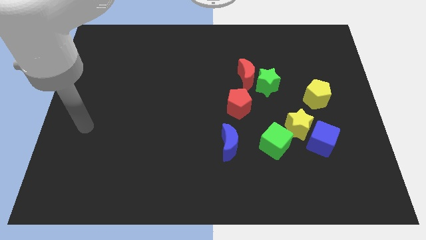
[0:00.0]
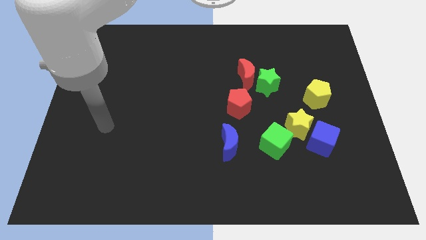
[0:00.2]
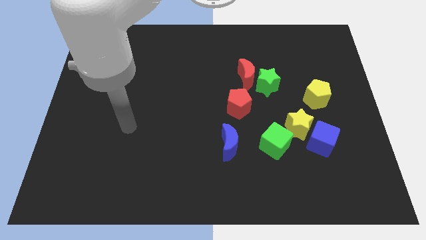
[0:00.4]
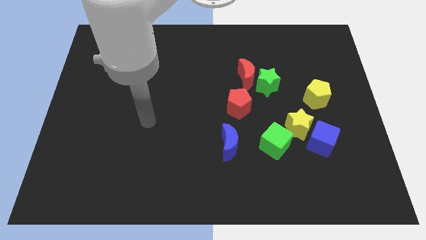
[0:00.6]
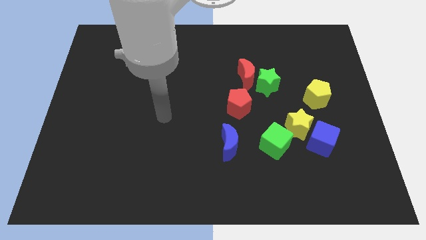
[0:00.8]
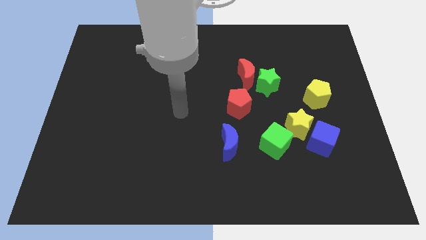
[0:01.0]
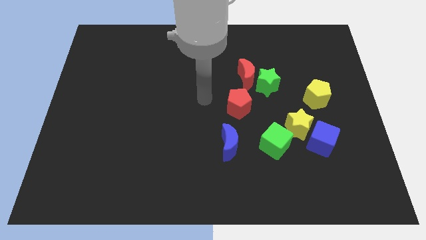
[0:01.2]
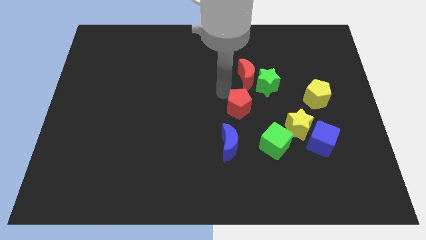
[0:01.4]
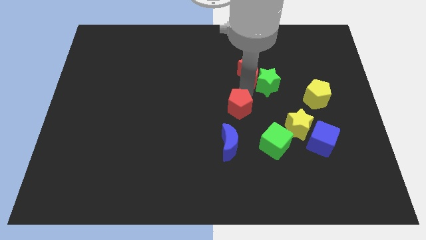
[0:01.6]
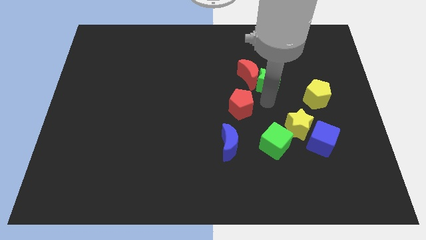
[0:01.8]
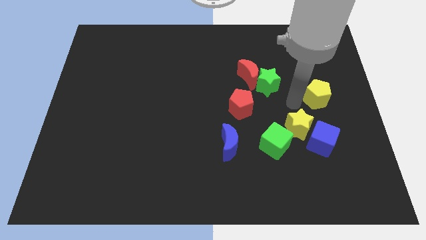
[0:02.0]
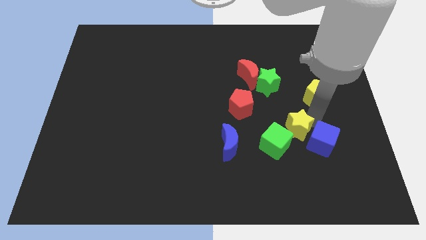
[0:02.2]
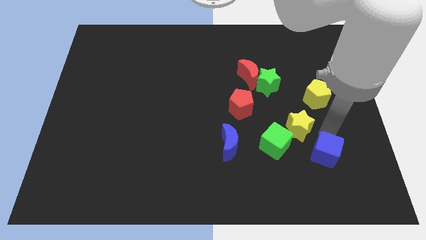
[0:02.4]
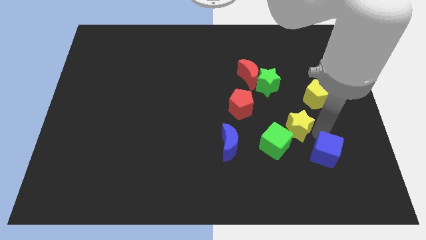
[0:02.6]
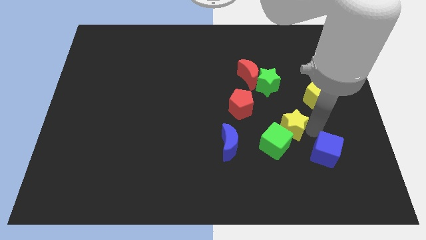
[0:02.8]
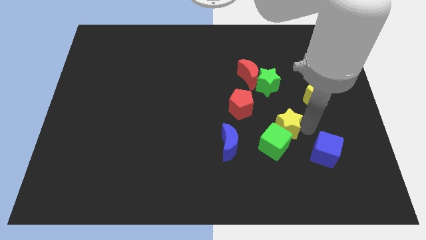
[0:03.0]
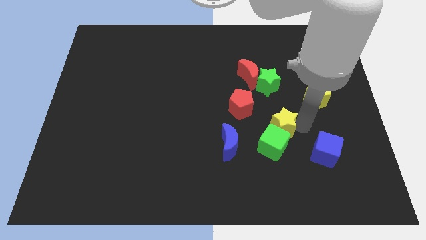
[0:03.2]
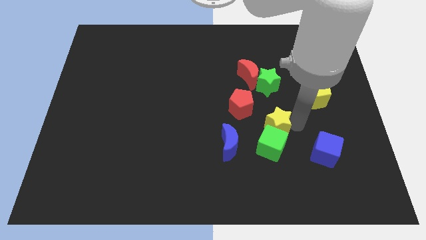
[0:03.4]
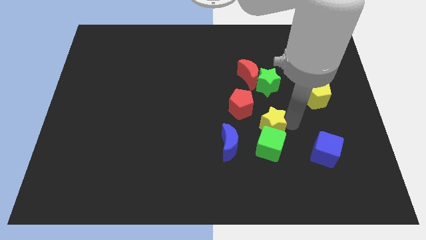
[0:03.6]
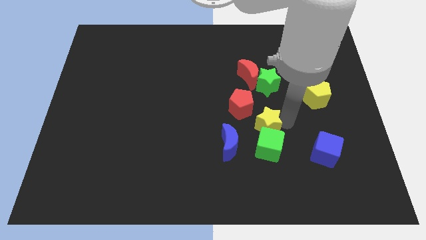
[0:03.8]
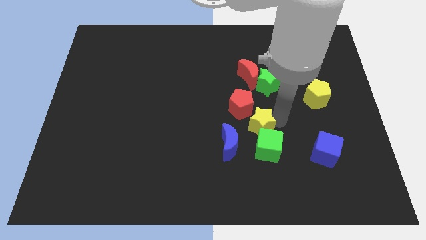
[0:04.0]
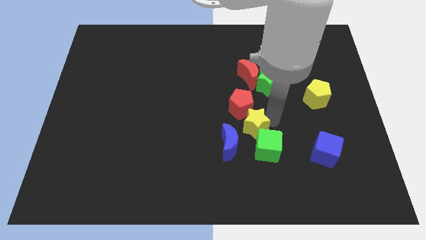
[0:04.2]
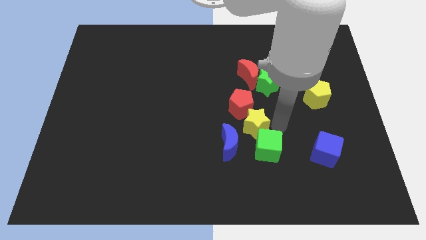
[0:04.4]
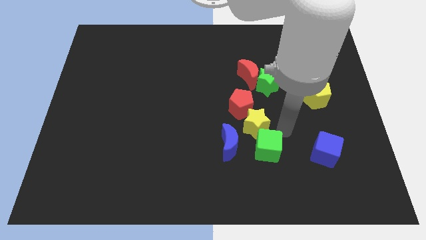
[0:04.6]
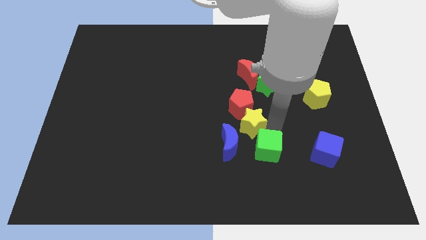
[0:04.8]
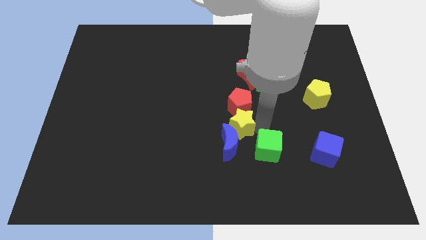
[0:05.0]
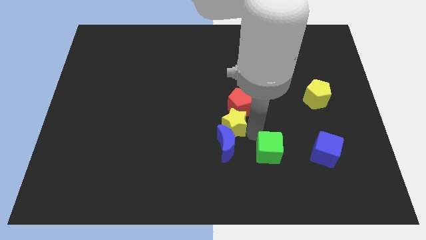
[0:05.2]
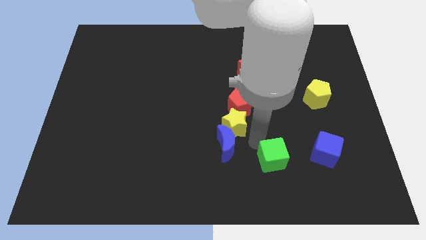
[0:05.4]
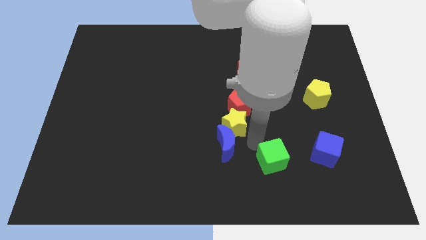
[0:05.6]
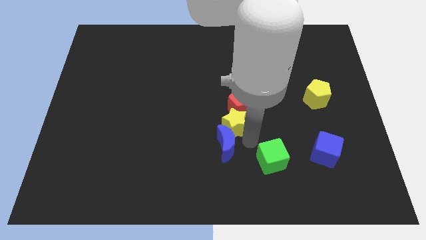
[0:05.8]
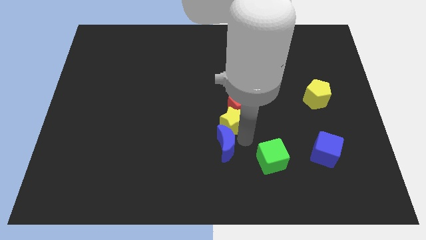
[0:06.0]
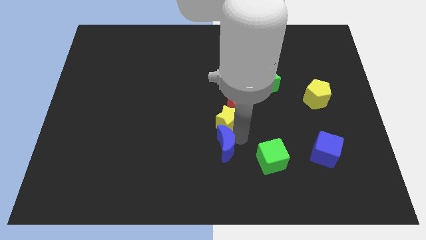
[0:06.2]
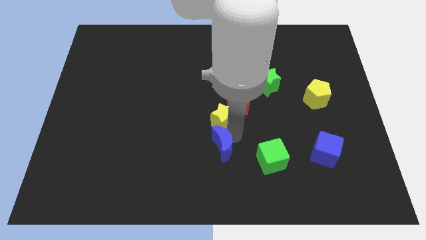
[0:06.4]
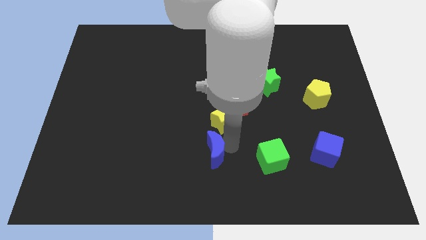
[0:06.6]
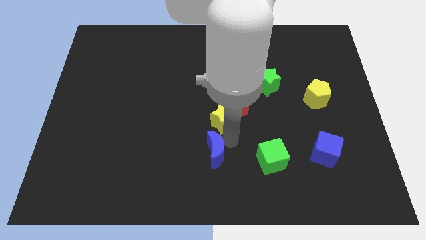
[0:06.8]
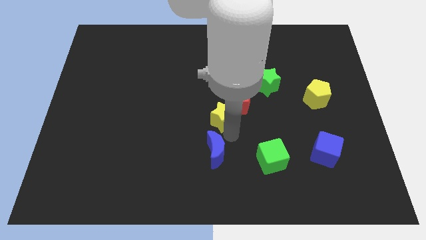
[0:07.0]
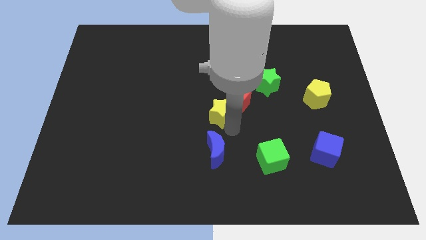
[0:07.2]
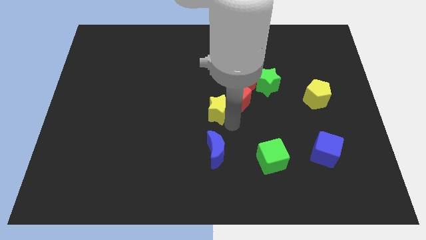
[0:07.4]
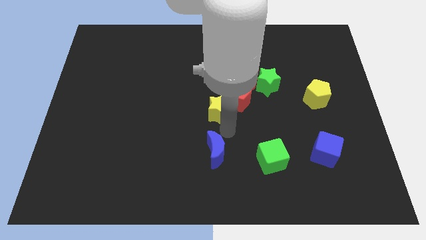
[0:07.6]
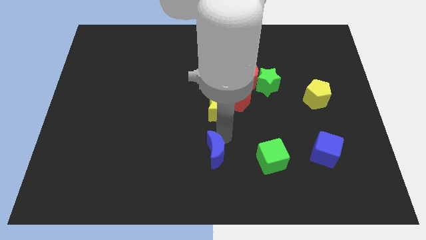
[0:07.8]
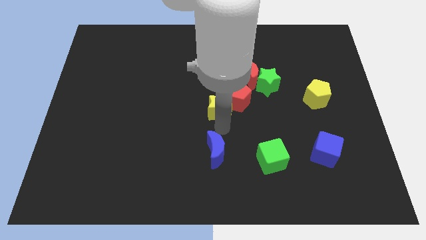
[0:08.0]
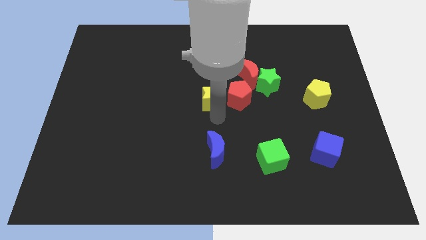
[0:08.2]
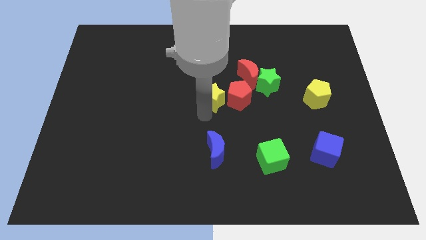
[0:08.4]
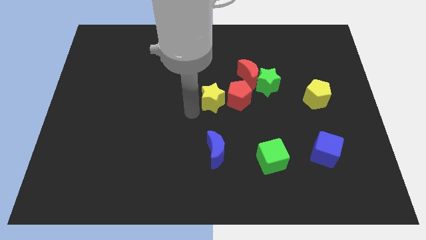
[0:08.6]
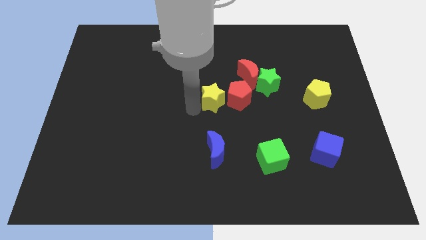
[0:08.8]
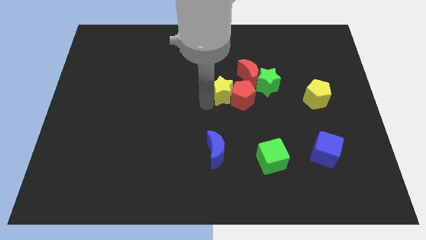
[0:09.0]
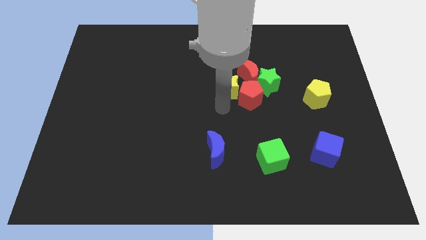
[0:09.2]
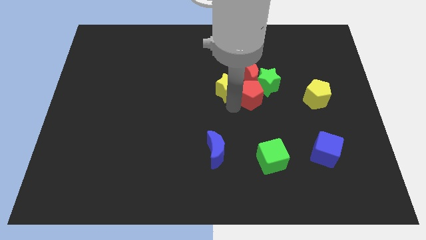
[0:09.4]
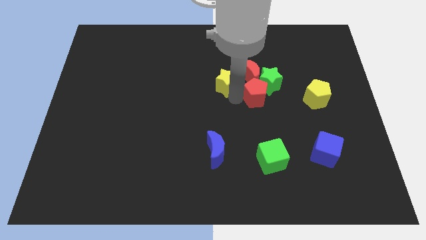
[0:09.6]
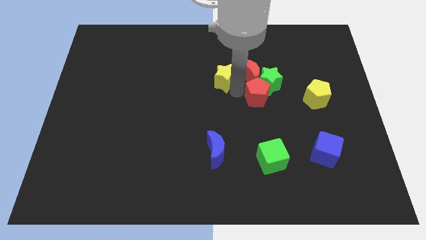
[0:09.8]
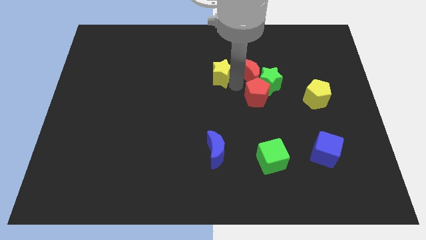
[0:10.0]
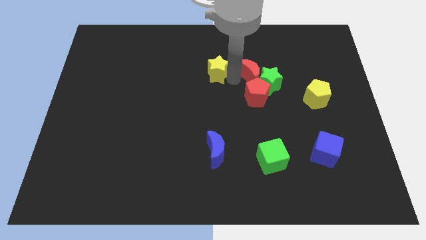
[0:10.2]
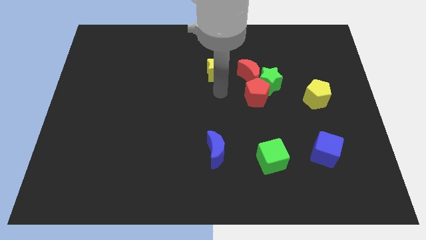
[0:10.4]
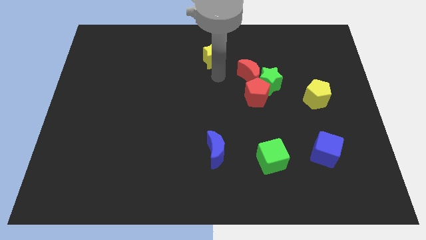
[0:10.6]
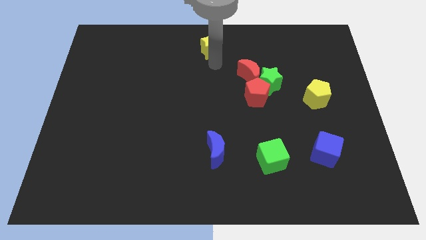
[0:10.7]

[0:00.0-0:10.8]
put the yellow star to the towards your base

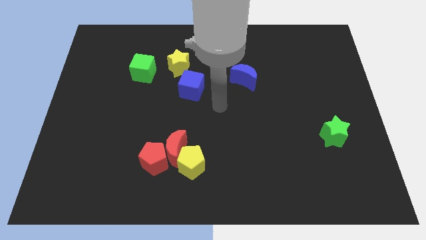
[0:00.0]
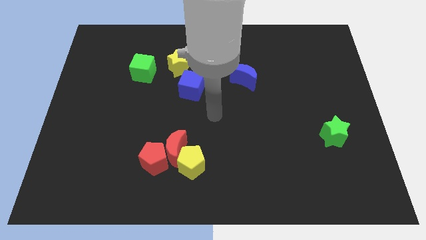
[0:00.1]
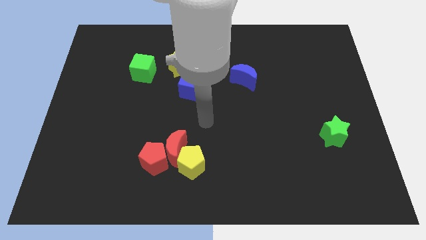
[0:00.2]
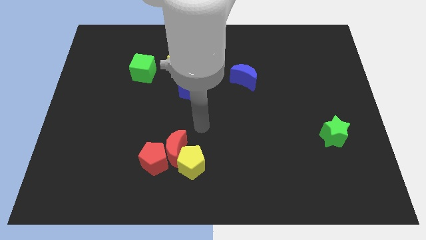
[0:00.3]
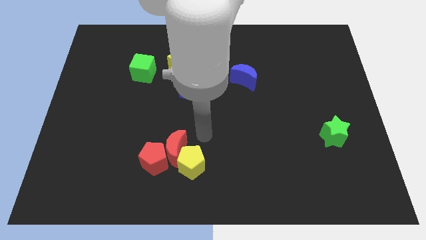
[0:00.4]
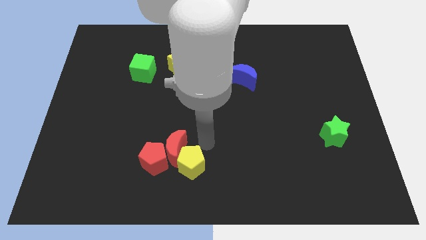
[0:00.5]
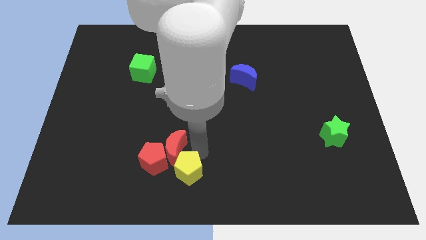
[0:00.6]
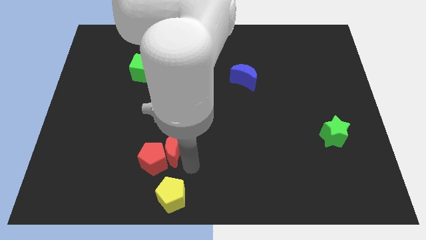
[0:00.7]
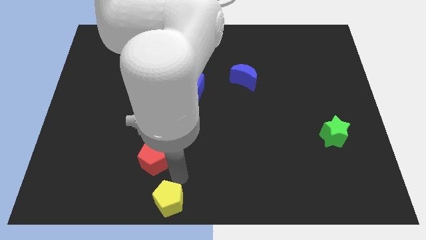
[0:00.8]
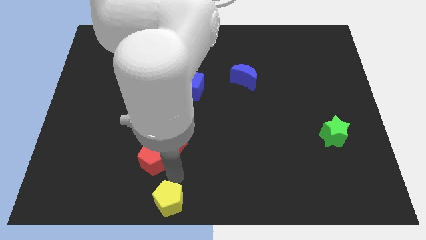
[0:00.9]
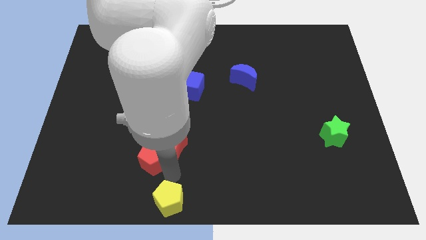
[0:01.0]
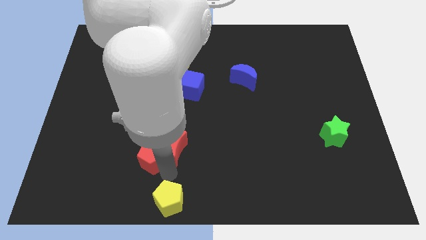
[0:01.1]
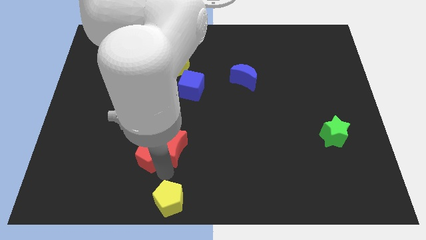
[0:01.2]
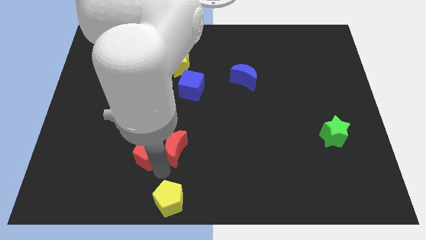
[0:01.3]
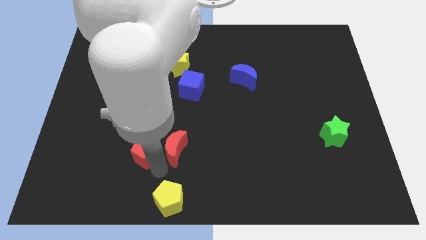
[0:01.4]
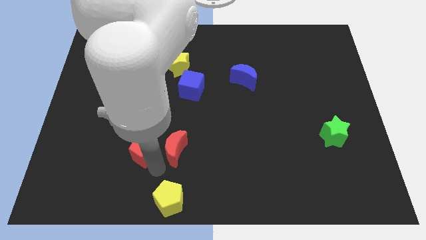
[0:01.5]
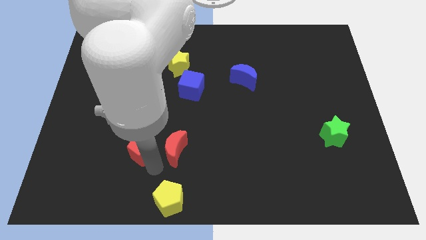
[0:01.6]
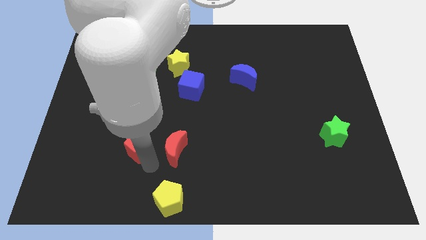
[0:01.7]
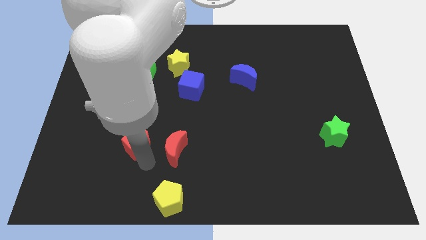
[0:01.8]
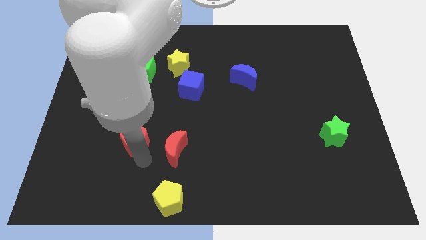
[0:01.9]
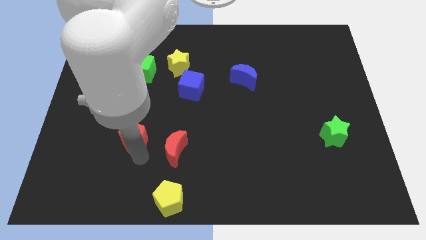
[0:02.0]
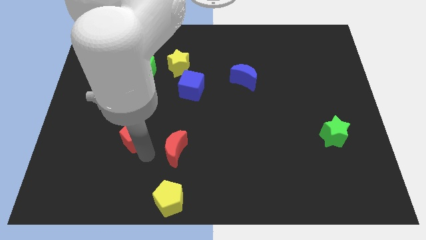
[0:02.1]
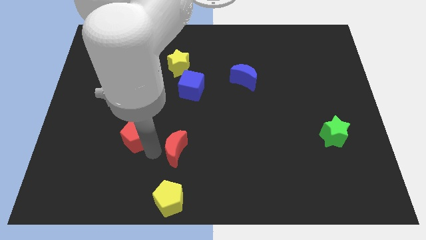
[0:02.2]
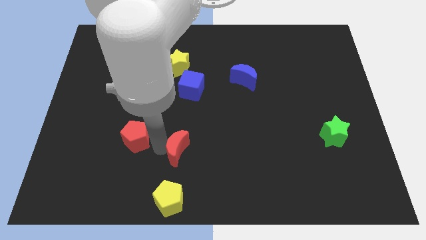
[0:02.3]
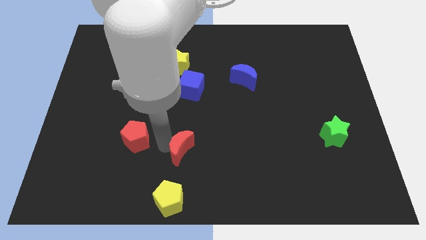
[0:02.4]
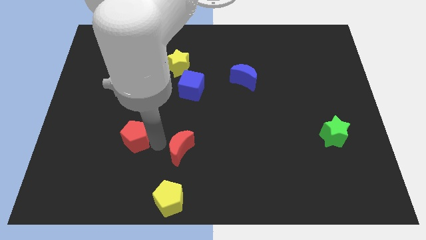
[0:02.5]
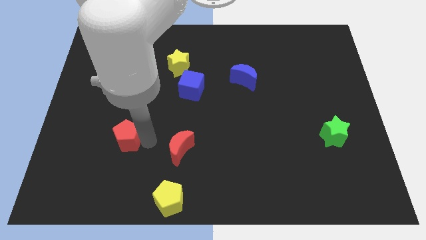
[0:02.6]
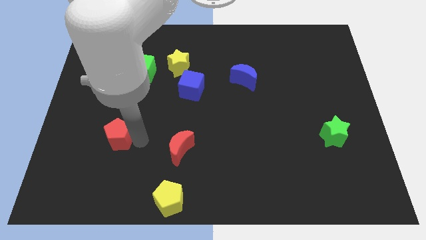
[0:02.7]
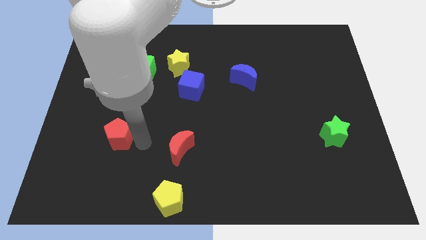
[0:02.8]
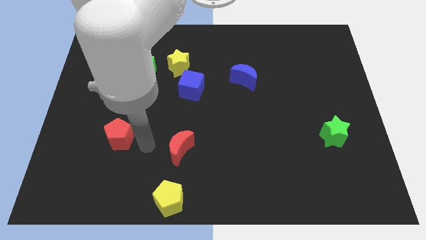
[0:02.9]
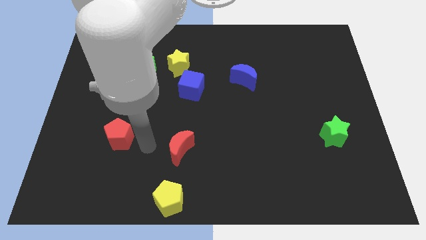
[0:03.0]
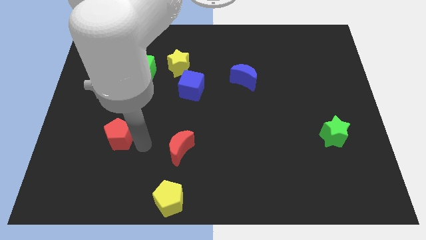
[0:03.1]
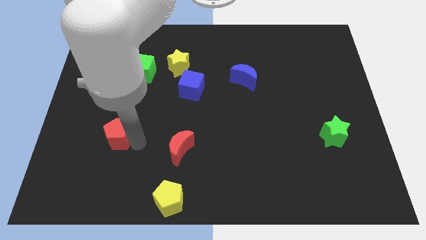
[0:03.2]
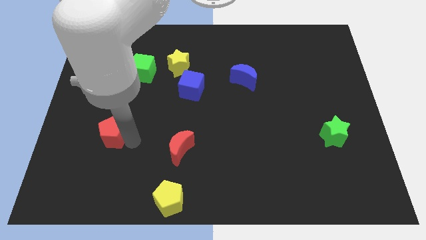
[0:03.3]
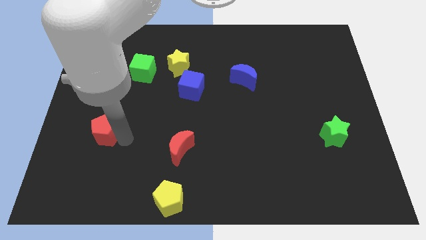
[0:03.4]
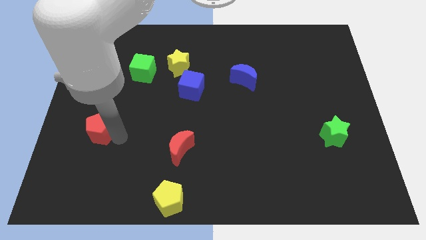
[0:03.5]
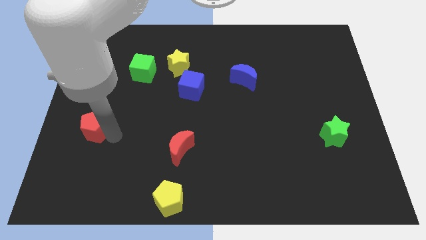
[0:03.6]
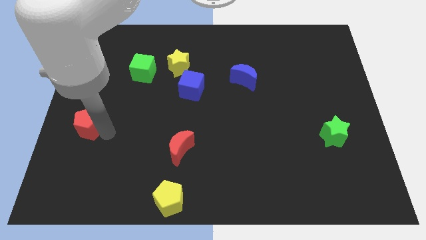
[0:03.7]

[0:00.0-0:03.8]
slide the red pentagon to the center left
